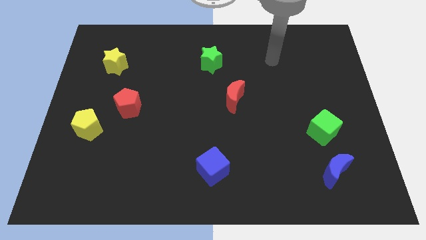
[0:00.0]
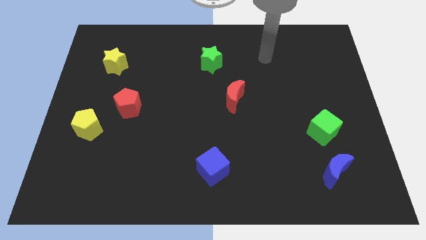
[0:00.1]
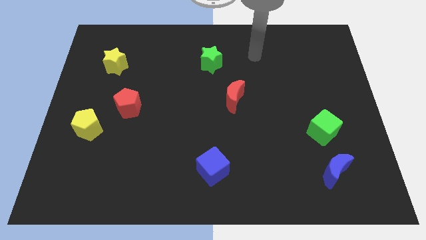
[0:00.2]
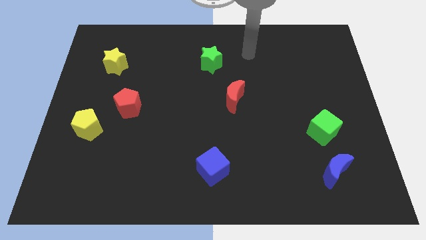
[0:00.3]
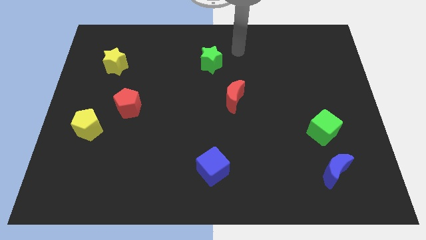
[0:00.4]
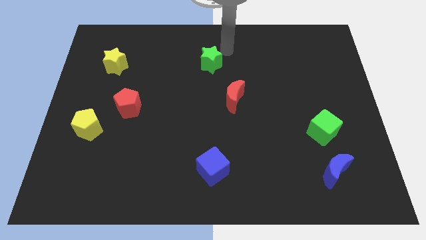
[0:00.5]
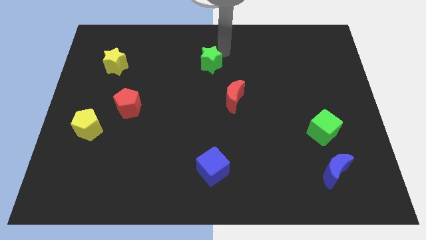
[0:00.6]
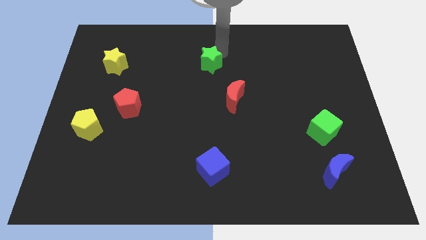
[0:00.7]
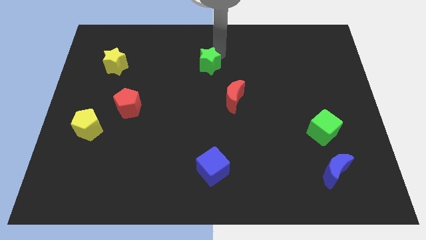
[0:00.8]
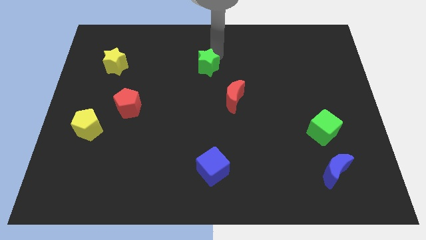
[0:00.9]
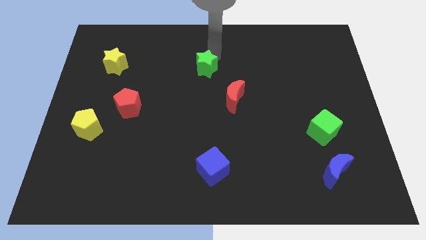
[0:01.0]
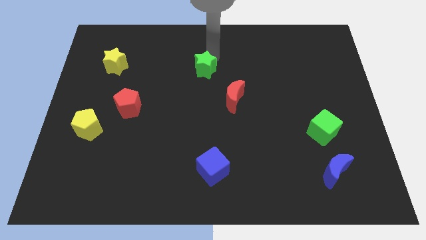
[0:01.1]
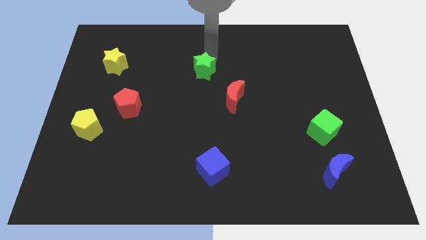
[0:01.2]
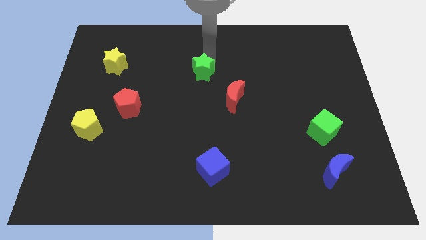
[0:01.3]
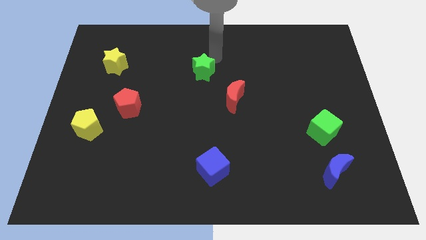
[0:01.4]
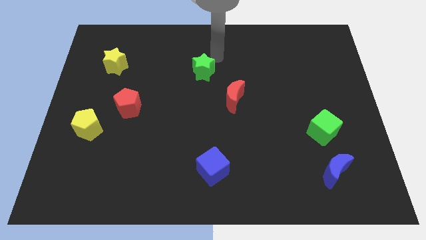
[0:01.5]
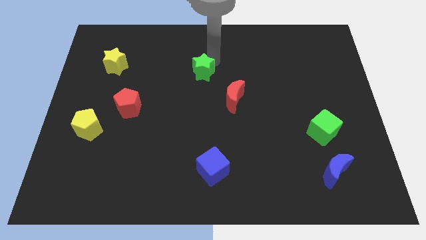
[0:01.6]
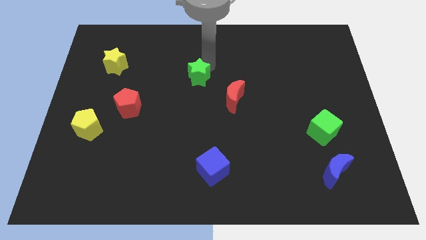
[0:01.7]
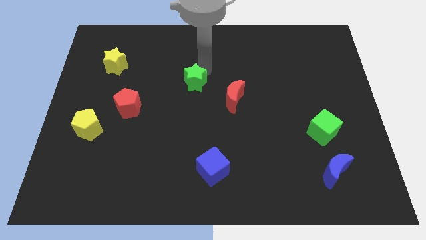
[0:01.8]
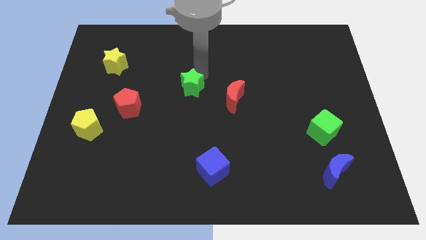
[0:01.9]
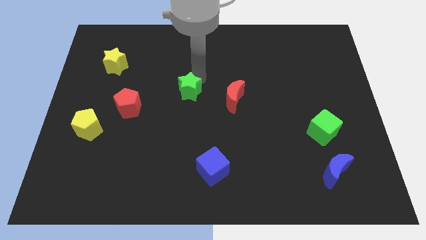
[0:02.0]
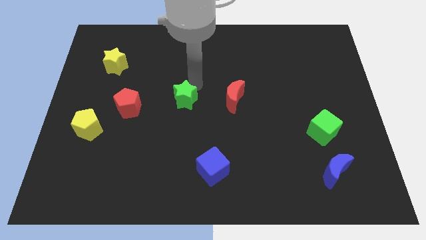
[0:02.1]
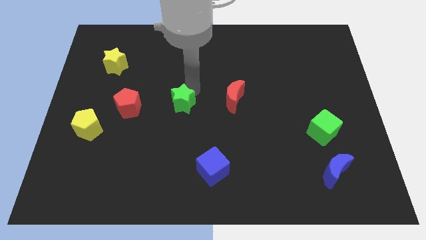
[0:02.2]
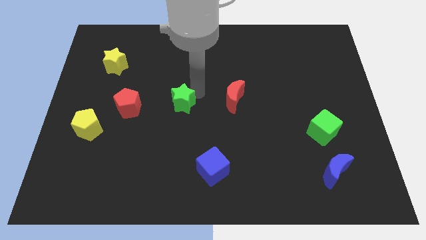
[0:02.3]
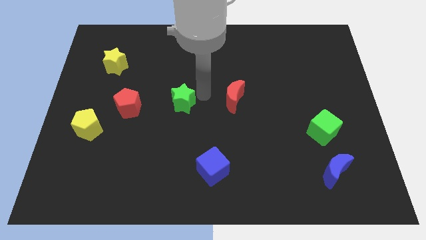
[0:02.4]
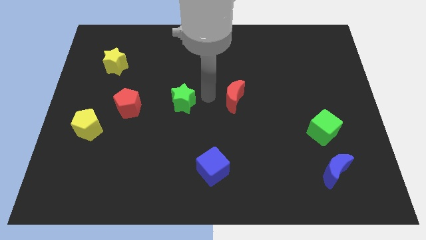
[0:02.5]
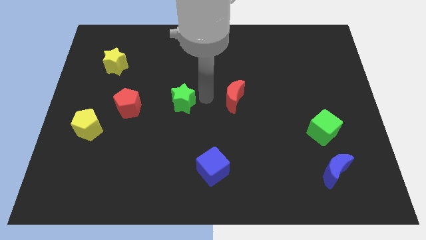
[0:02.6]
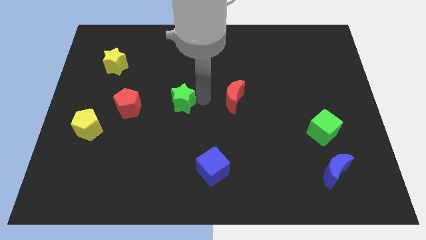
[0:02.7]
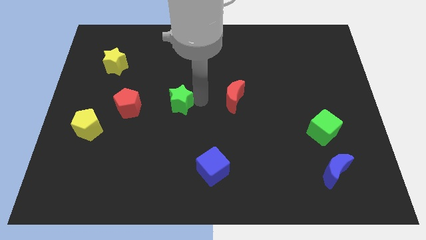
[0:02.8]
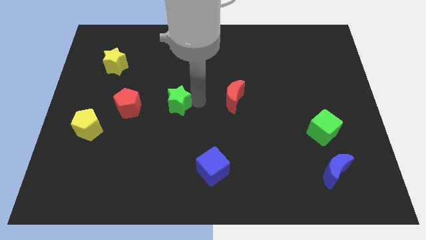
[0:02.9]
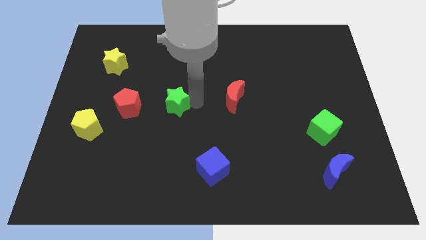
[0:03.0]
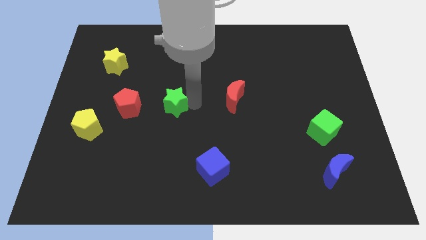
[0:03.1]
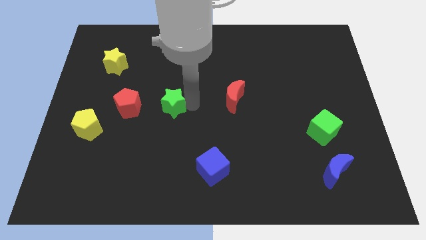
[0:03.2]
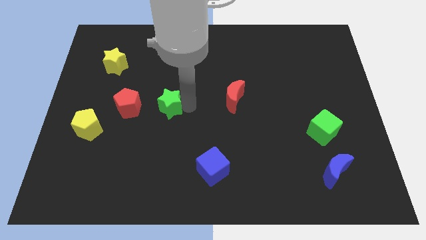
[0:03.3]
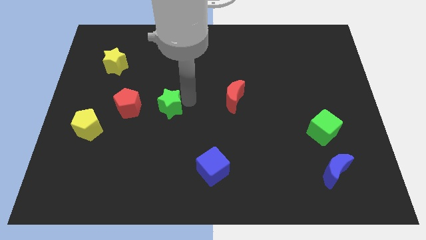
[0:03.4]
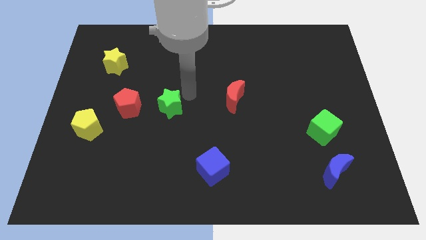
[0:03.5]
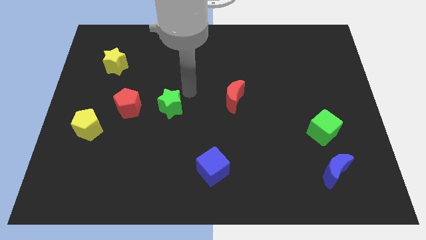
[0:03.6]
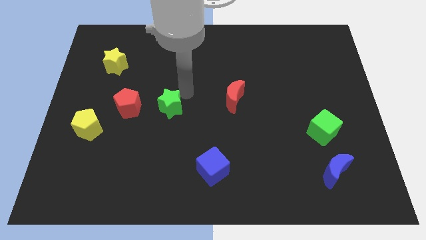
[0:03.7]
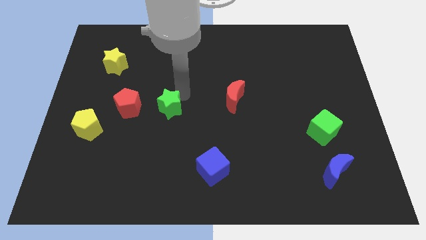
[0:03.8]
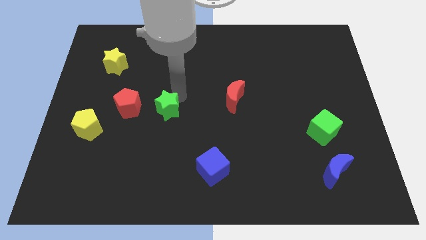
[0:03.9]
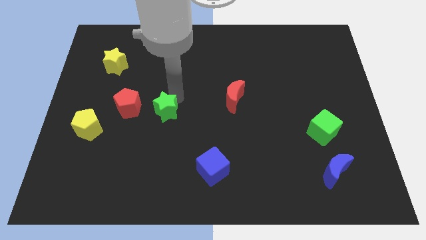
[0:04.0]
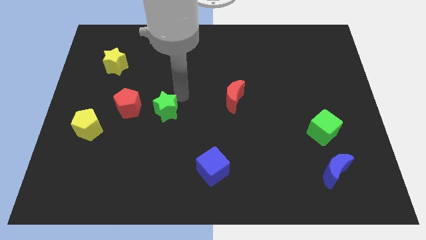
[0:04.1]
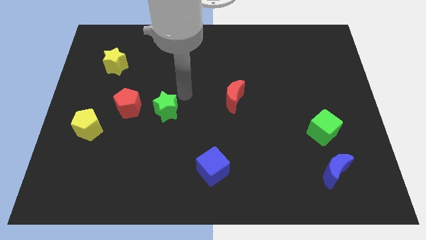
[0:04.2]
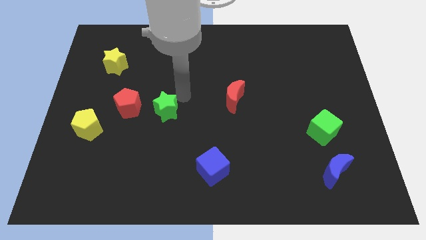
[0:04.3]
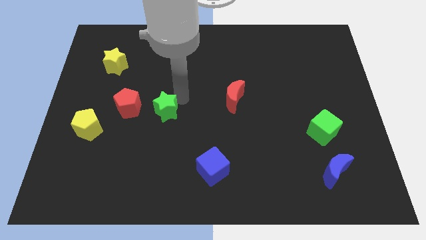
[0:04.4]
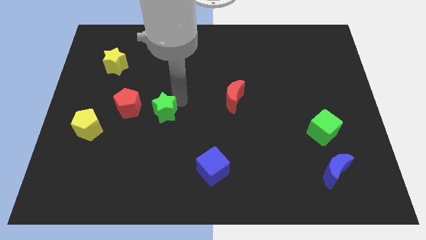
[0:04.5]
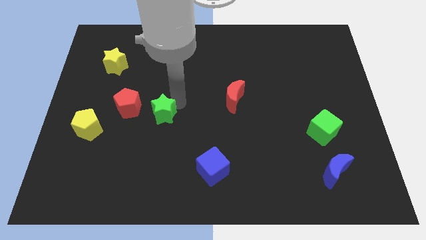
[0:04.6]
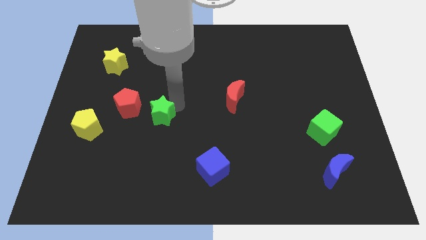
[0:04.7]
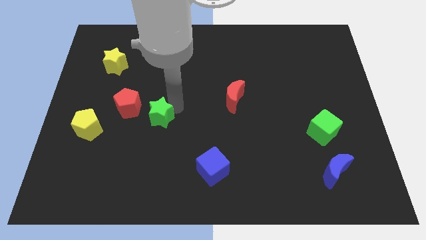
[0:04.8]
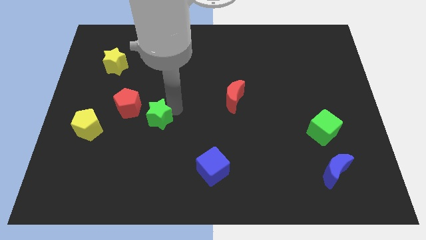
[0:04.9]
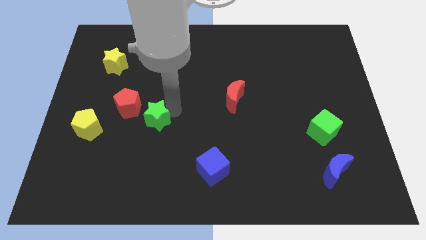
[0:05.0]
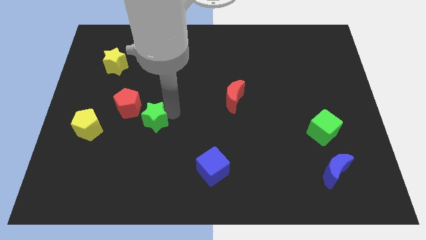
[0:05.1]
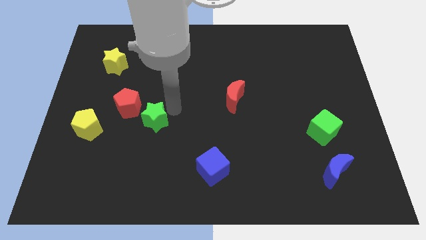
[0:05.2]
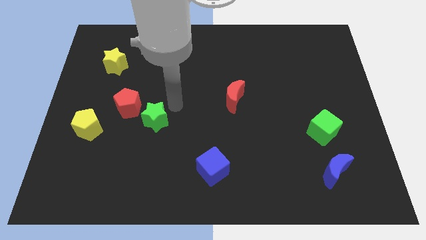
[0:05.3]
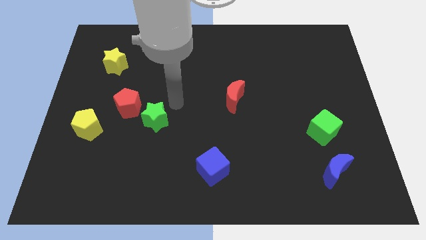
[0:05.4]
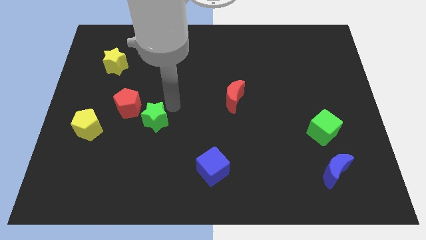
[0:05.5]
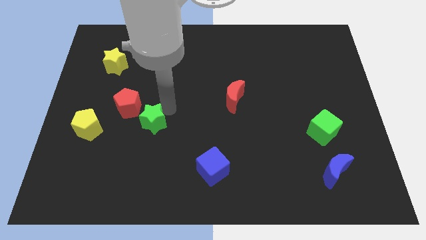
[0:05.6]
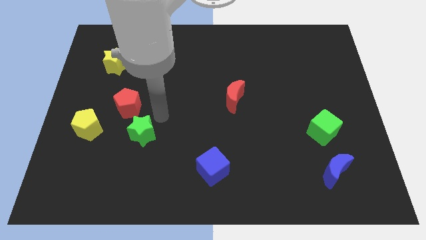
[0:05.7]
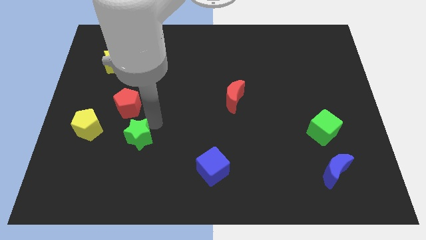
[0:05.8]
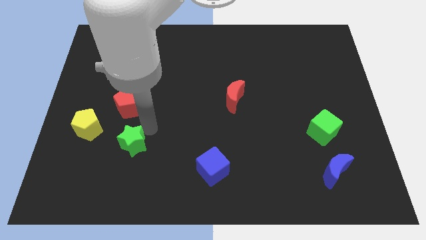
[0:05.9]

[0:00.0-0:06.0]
slide the green star to the bottom right side of the yellow pentagon
